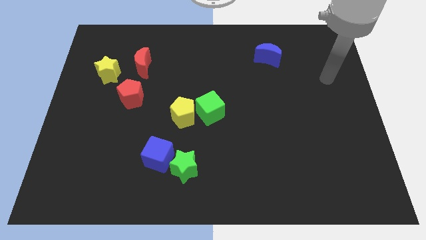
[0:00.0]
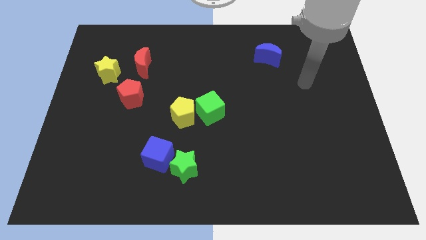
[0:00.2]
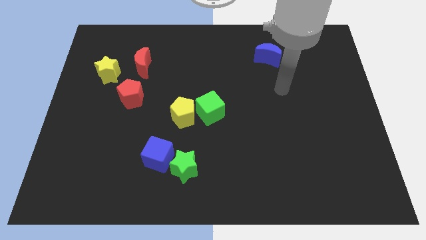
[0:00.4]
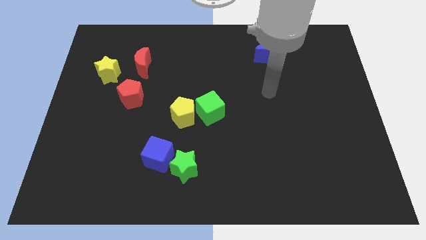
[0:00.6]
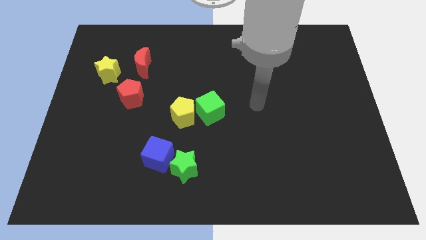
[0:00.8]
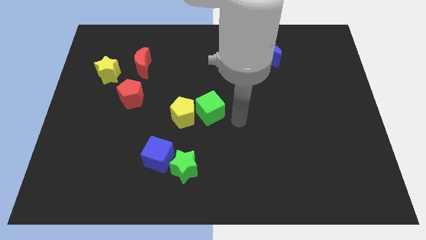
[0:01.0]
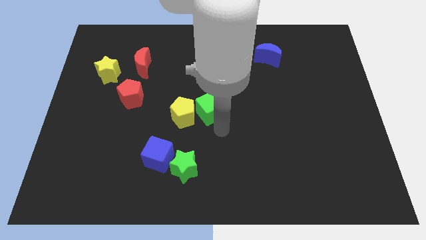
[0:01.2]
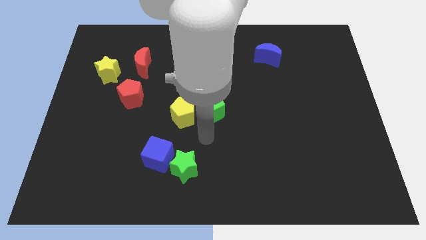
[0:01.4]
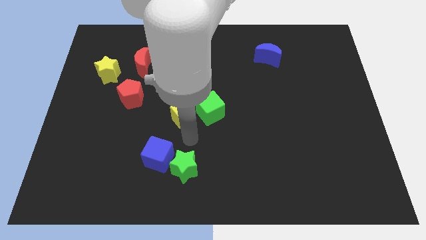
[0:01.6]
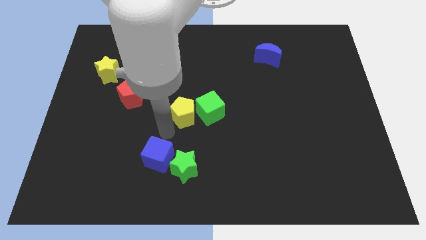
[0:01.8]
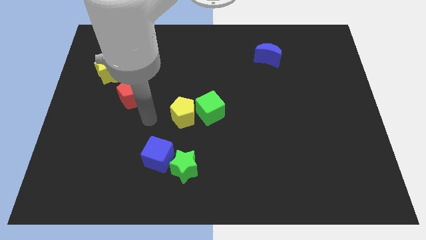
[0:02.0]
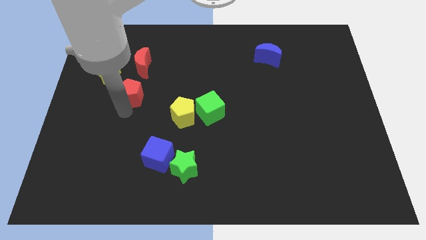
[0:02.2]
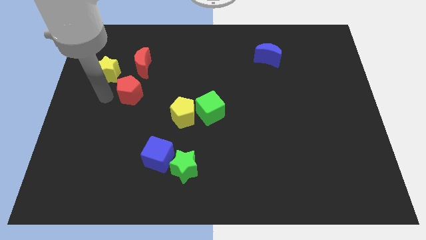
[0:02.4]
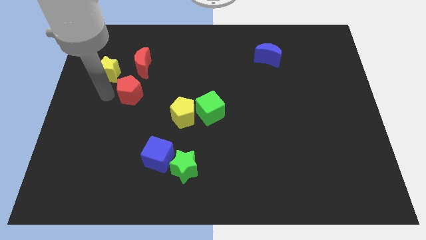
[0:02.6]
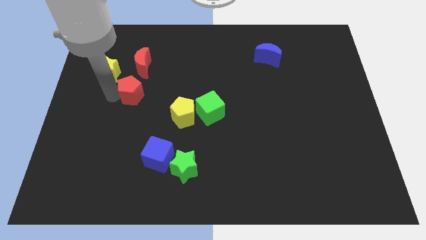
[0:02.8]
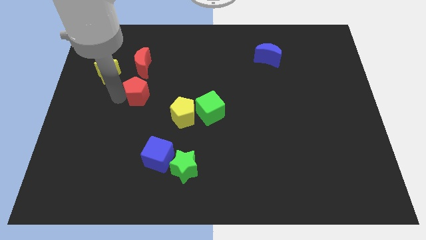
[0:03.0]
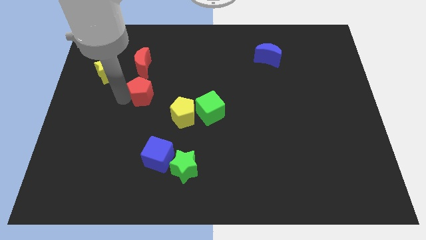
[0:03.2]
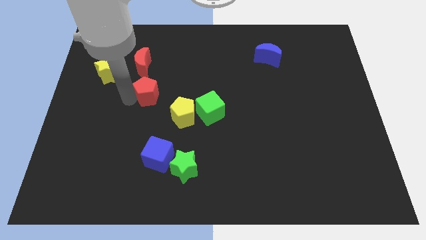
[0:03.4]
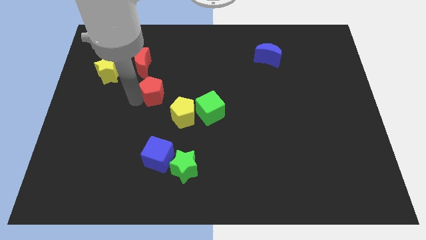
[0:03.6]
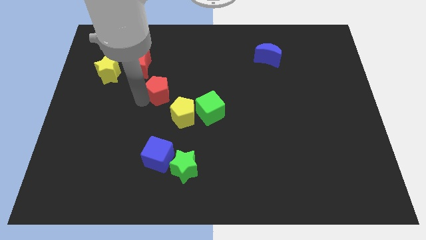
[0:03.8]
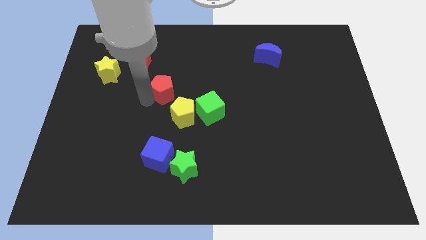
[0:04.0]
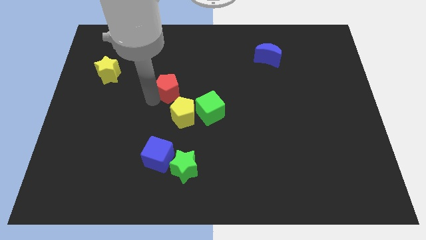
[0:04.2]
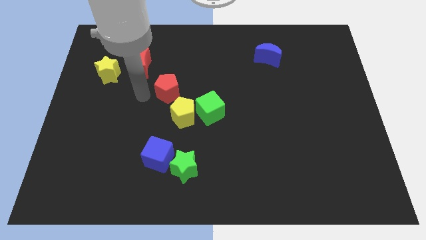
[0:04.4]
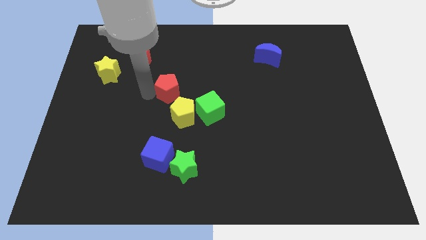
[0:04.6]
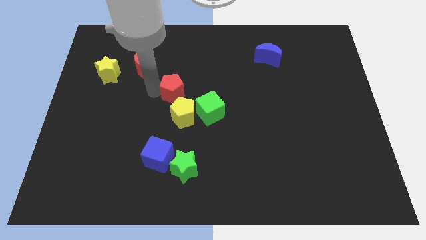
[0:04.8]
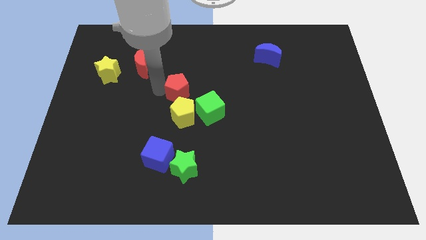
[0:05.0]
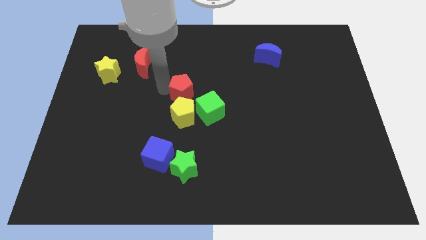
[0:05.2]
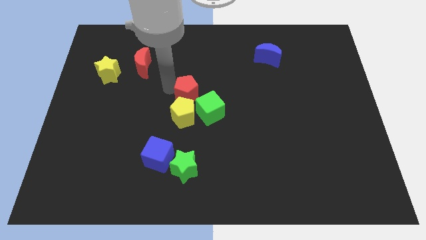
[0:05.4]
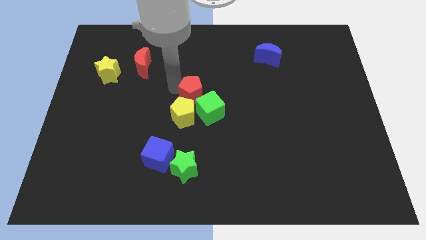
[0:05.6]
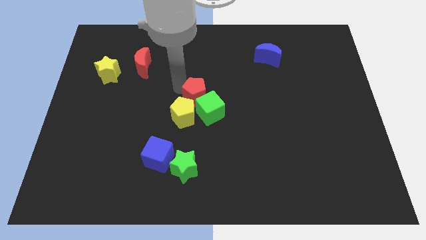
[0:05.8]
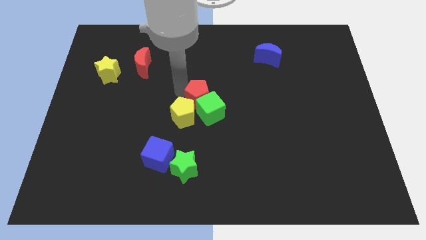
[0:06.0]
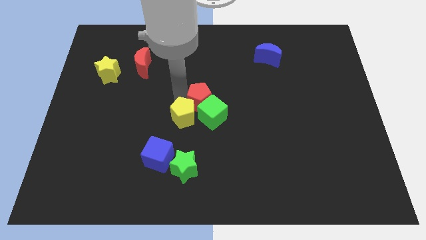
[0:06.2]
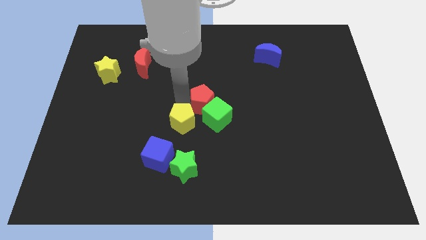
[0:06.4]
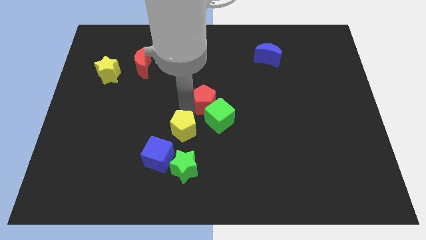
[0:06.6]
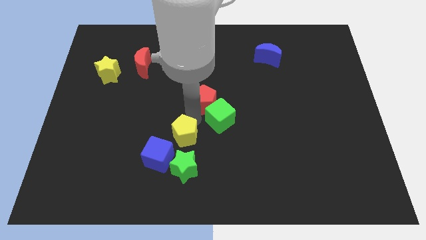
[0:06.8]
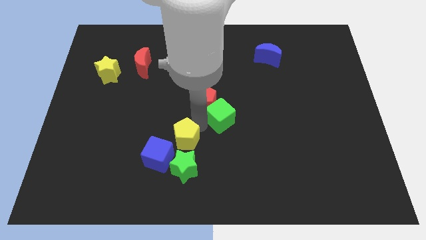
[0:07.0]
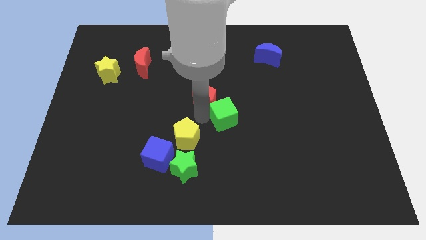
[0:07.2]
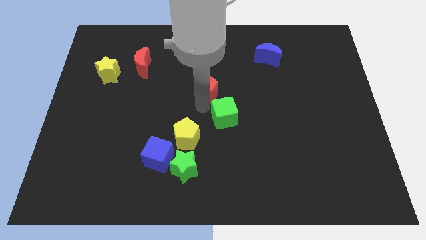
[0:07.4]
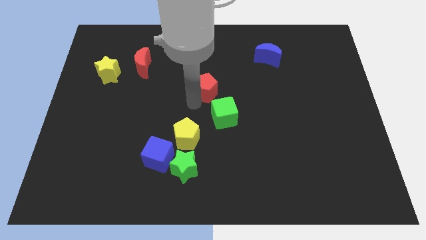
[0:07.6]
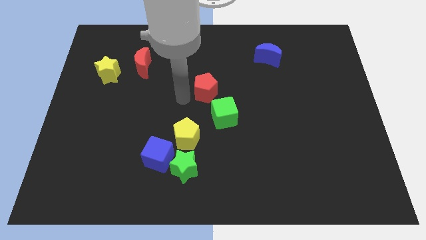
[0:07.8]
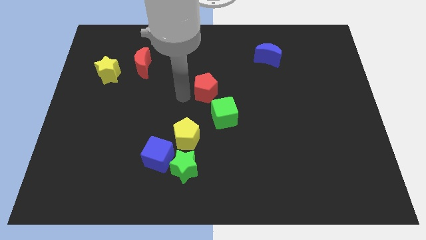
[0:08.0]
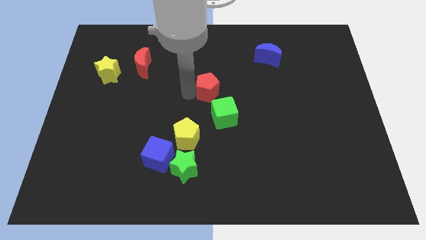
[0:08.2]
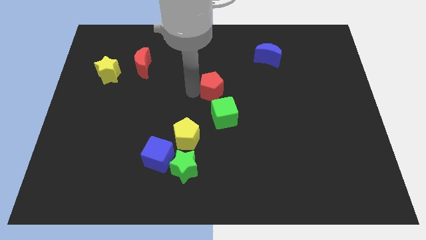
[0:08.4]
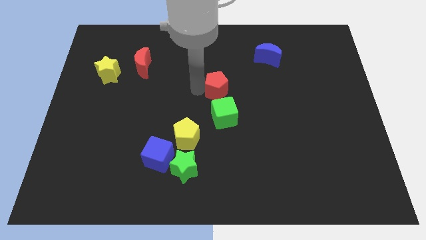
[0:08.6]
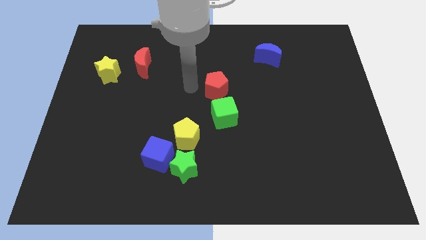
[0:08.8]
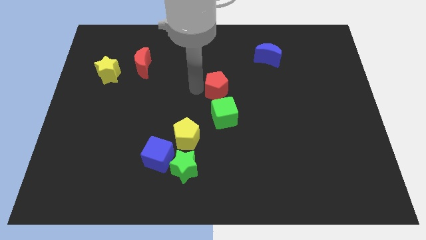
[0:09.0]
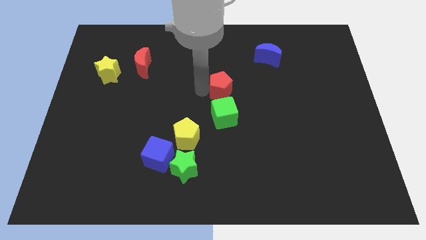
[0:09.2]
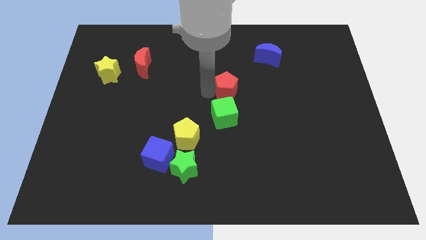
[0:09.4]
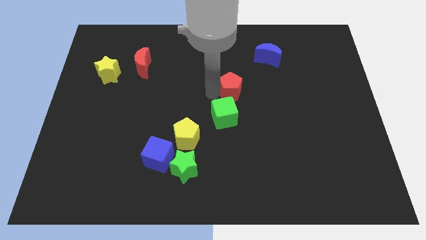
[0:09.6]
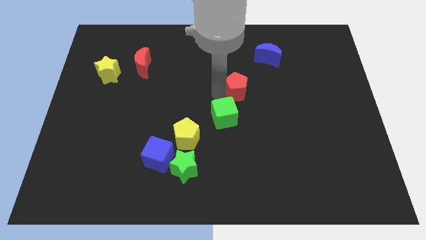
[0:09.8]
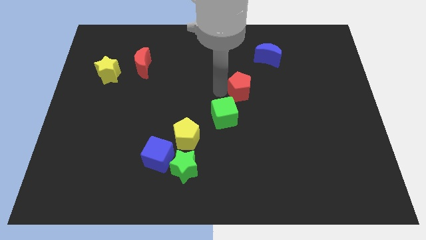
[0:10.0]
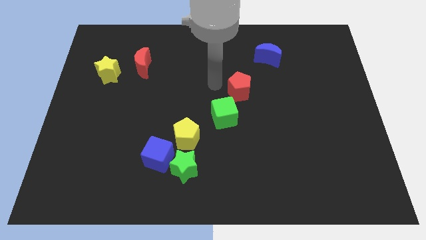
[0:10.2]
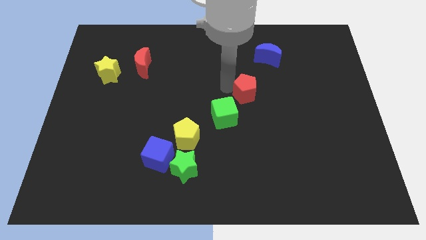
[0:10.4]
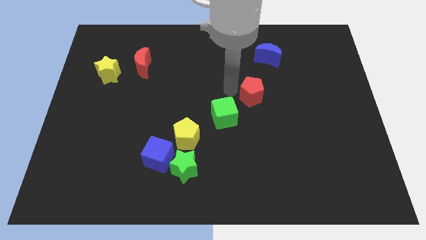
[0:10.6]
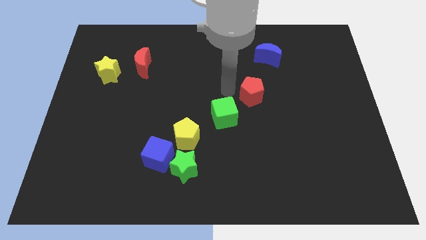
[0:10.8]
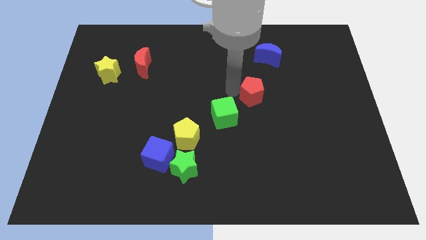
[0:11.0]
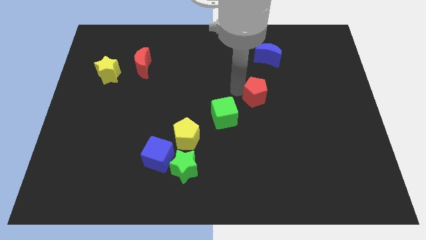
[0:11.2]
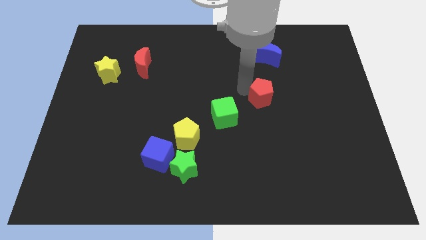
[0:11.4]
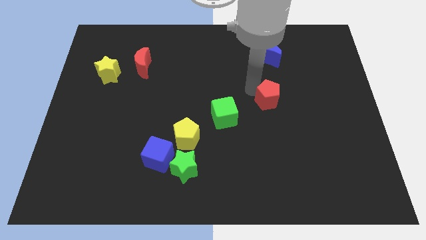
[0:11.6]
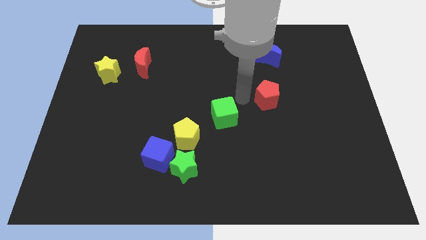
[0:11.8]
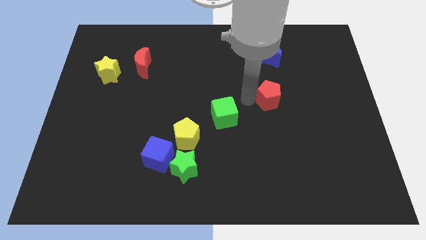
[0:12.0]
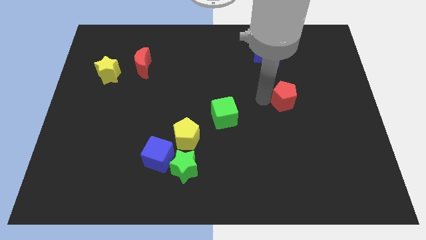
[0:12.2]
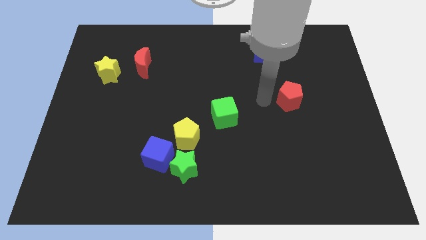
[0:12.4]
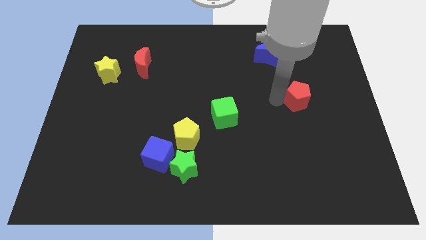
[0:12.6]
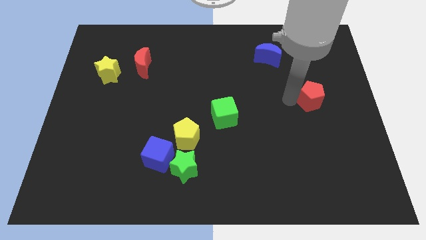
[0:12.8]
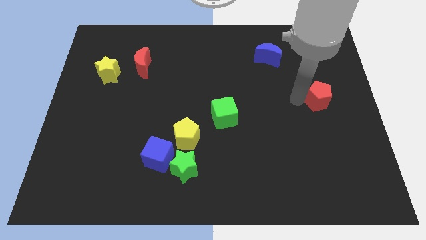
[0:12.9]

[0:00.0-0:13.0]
push the red pentagon to the right side
